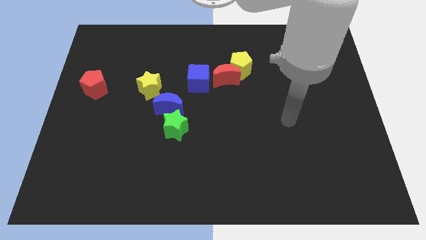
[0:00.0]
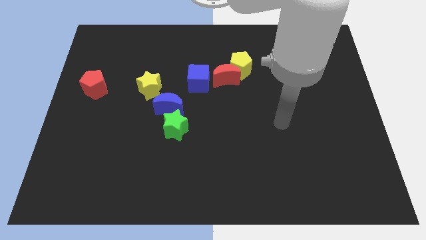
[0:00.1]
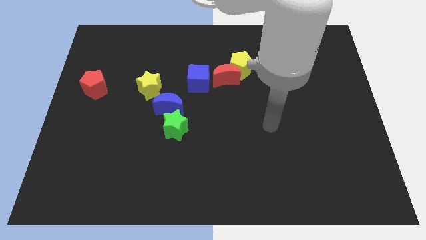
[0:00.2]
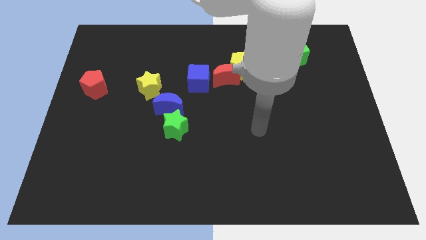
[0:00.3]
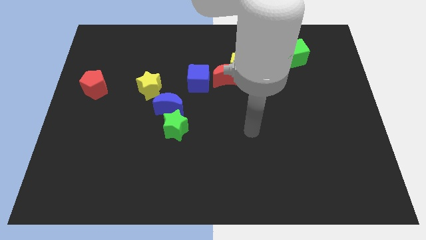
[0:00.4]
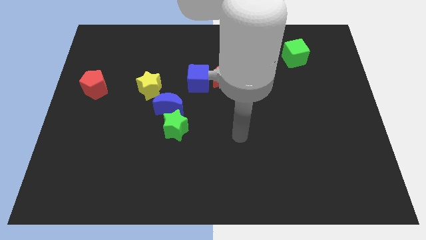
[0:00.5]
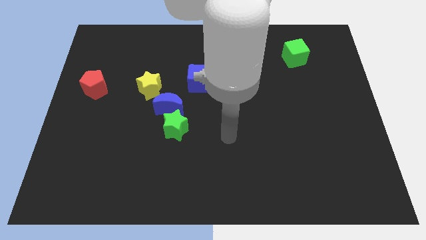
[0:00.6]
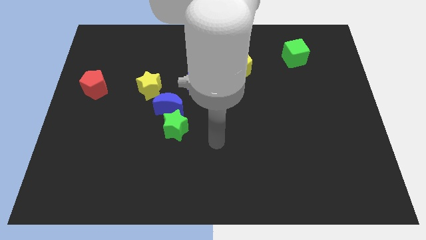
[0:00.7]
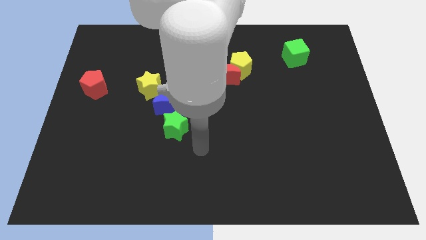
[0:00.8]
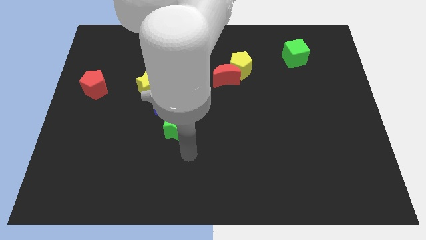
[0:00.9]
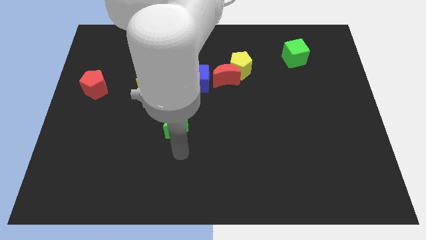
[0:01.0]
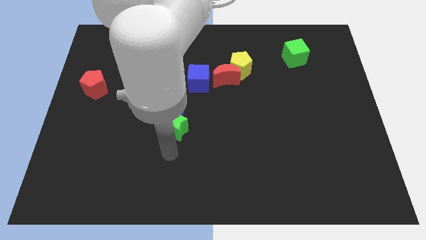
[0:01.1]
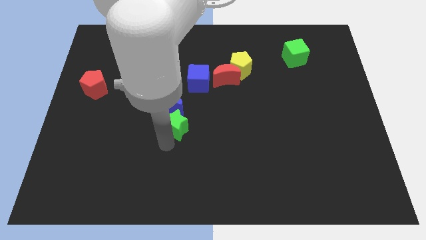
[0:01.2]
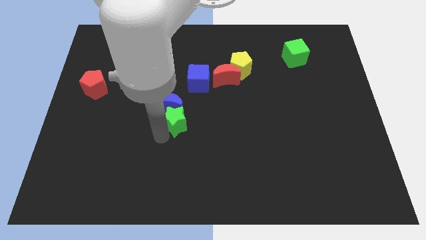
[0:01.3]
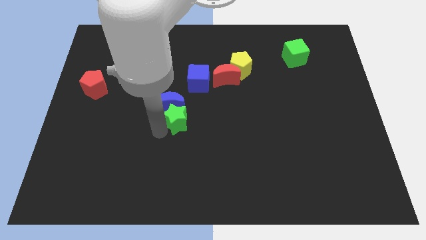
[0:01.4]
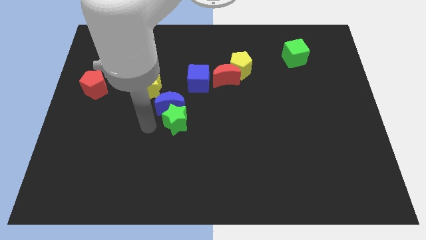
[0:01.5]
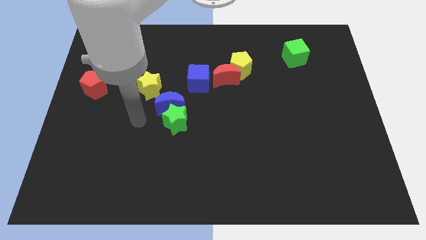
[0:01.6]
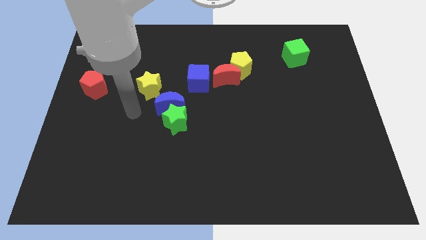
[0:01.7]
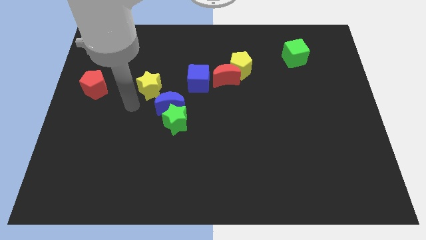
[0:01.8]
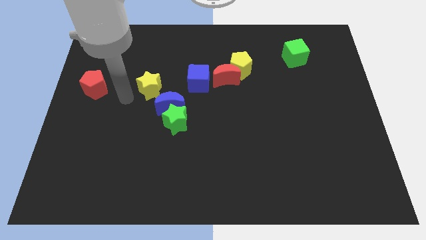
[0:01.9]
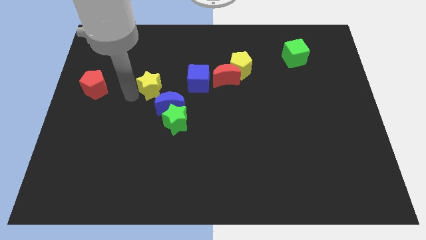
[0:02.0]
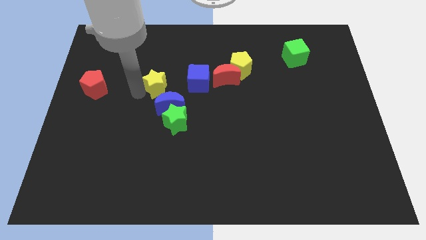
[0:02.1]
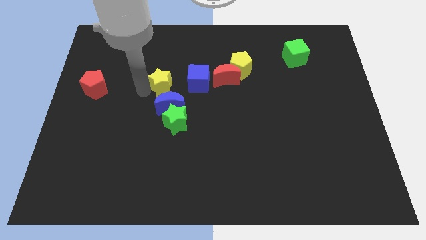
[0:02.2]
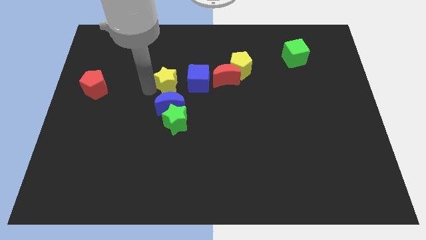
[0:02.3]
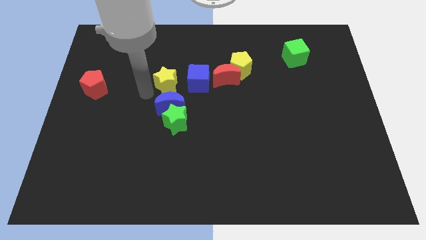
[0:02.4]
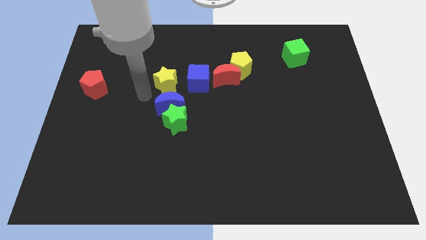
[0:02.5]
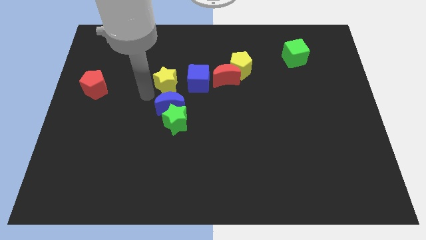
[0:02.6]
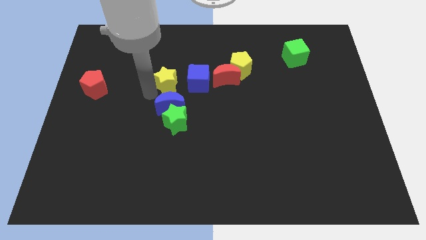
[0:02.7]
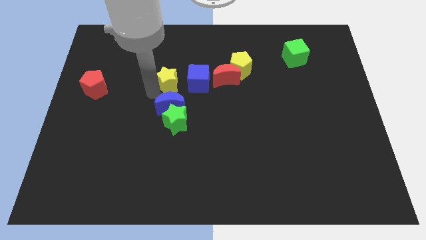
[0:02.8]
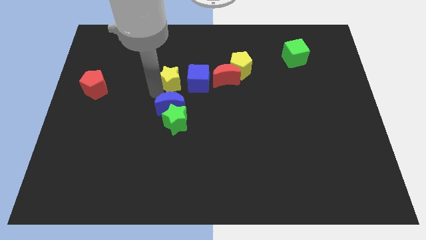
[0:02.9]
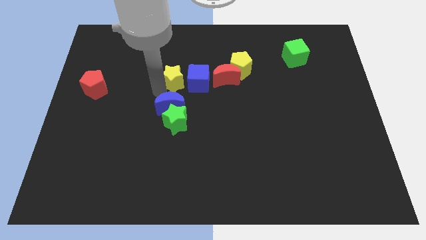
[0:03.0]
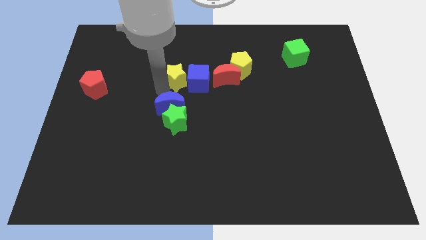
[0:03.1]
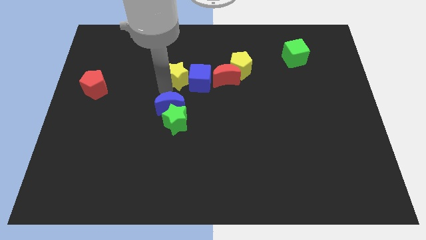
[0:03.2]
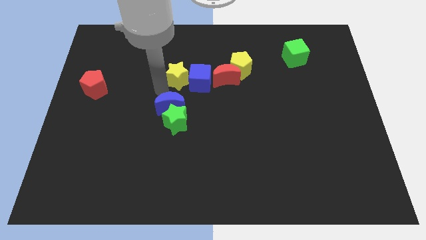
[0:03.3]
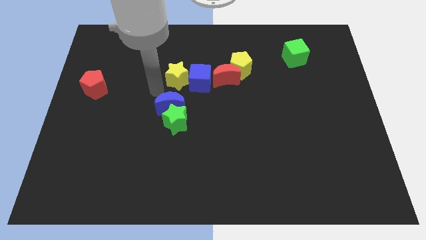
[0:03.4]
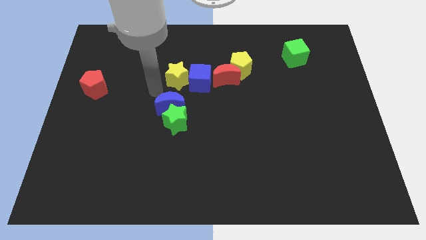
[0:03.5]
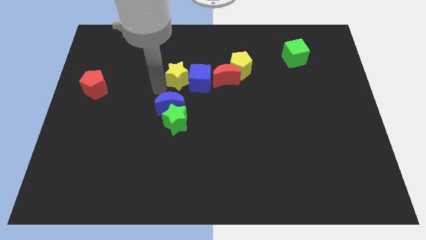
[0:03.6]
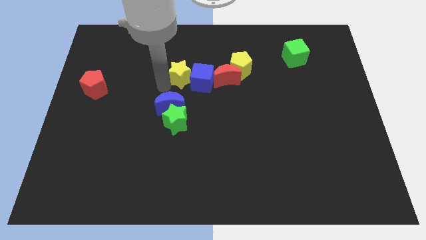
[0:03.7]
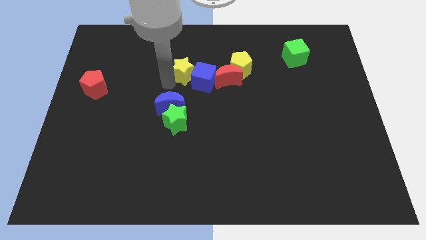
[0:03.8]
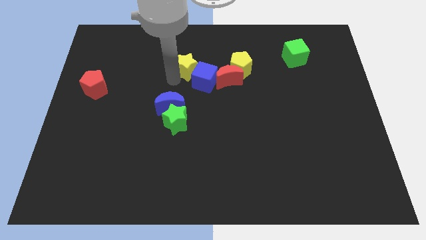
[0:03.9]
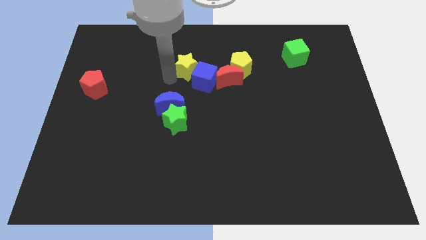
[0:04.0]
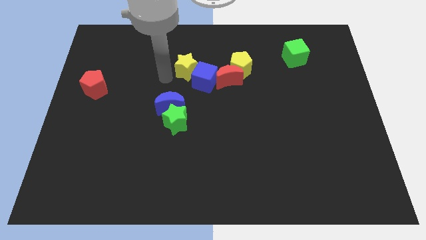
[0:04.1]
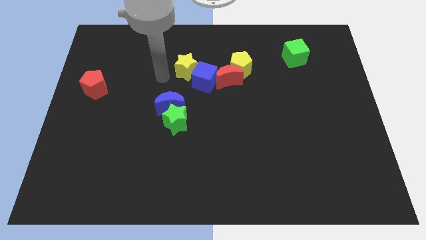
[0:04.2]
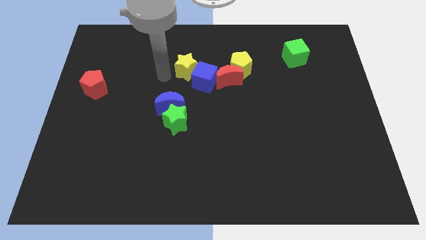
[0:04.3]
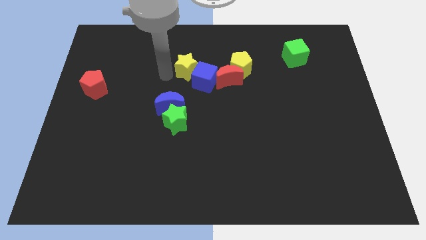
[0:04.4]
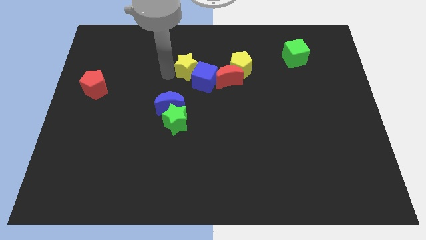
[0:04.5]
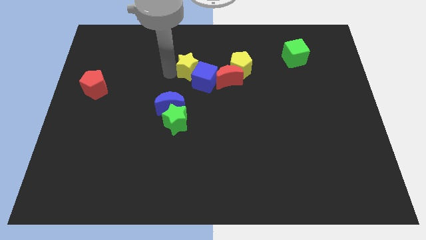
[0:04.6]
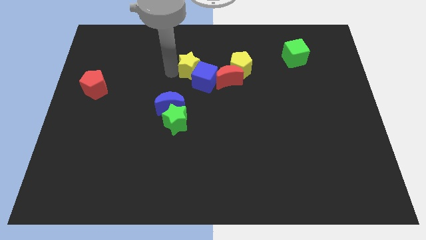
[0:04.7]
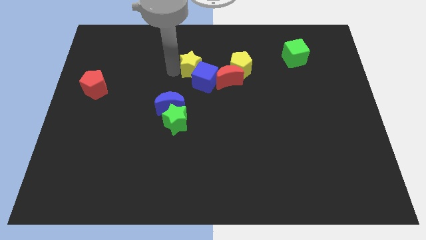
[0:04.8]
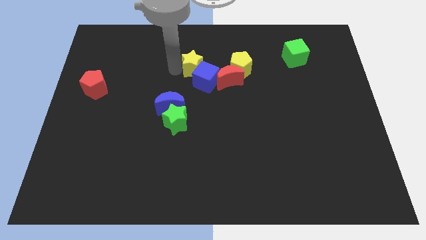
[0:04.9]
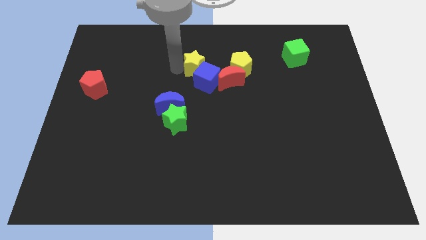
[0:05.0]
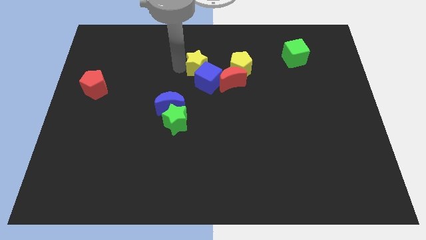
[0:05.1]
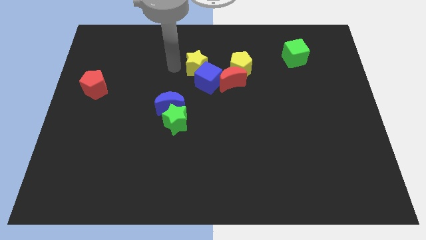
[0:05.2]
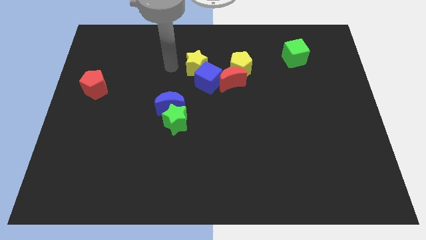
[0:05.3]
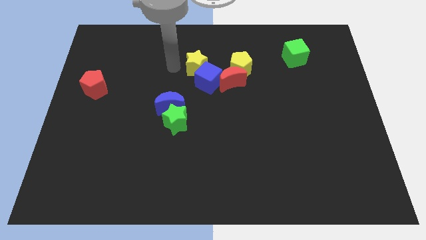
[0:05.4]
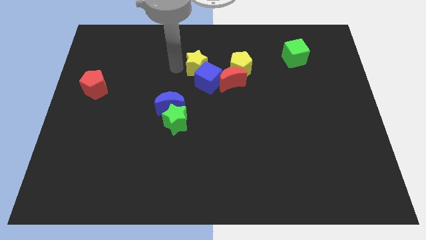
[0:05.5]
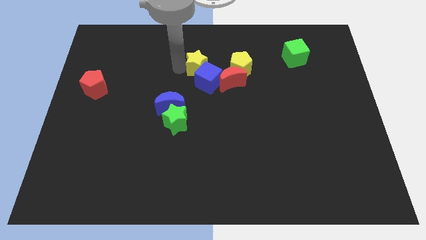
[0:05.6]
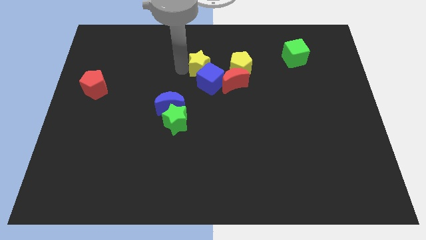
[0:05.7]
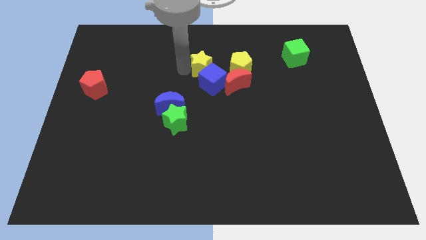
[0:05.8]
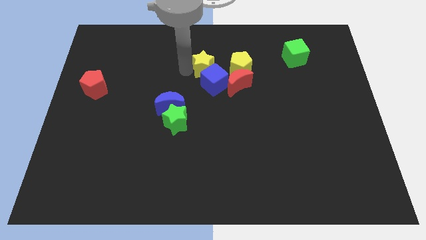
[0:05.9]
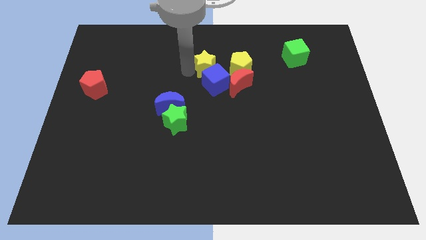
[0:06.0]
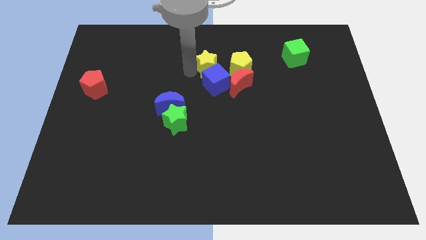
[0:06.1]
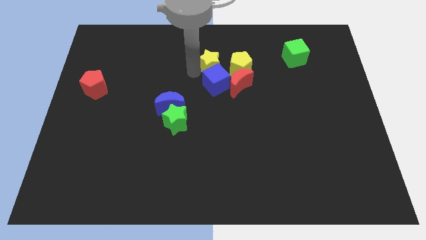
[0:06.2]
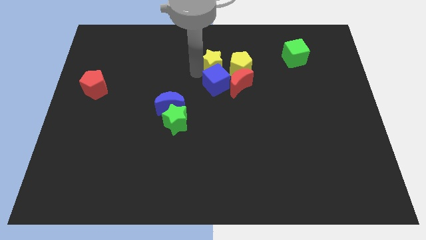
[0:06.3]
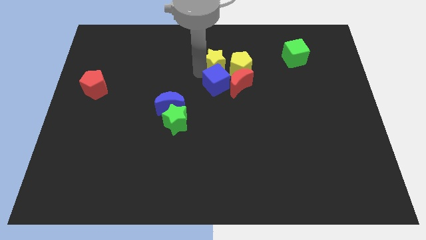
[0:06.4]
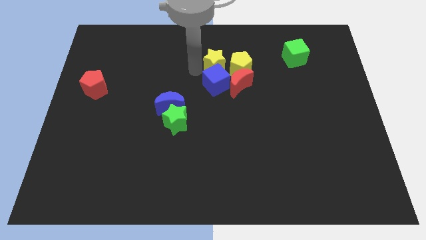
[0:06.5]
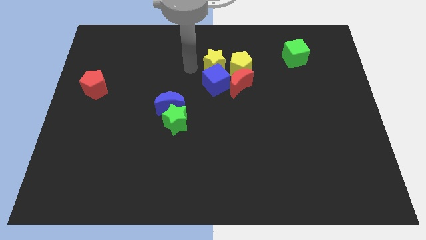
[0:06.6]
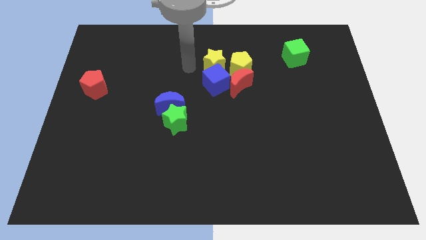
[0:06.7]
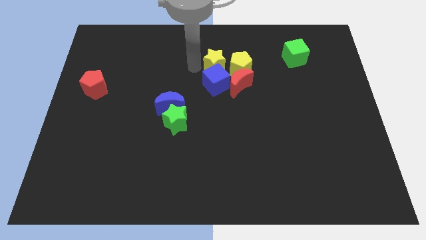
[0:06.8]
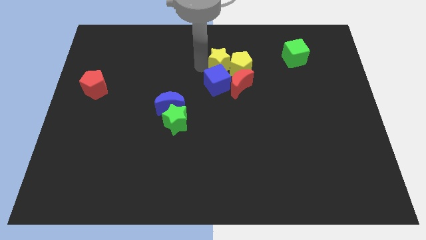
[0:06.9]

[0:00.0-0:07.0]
move the yellow star towards the yellow pentagon
